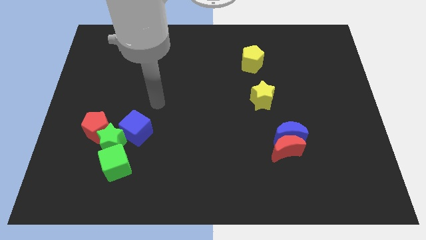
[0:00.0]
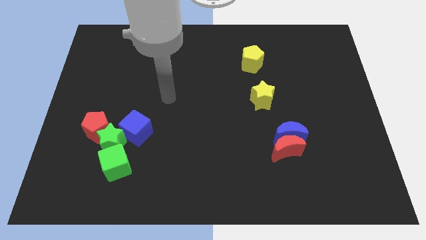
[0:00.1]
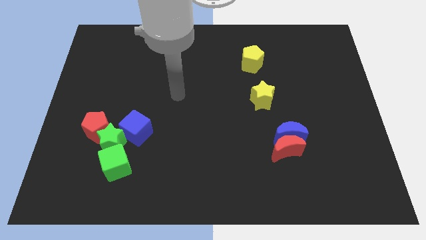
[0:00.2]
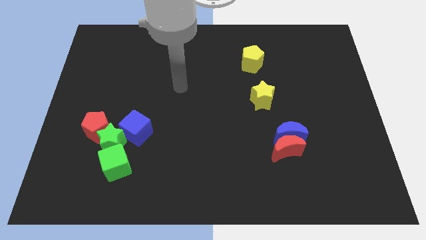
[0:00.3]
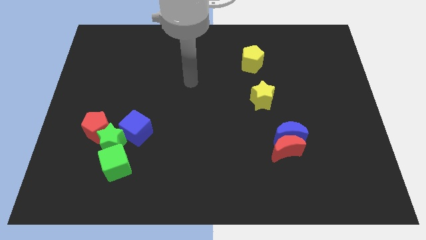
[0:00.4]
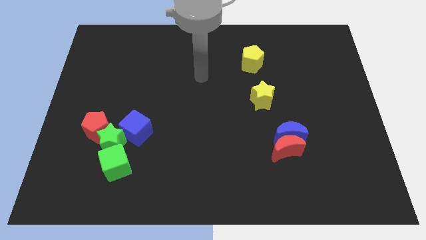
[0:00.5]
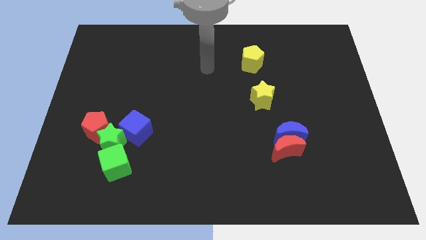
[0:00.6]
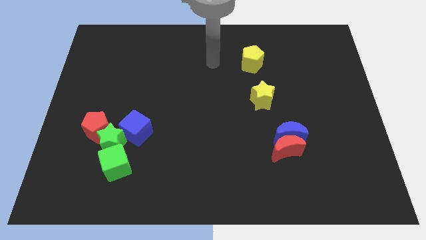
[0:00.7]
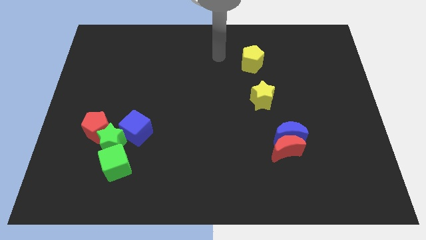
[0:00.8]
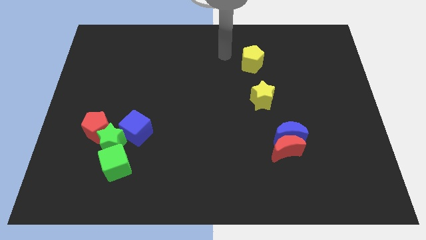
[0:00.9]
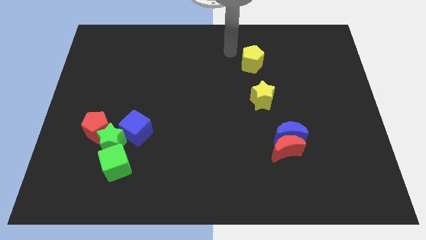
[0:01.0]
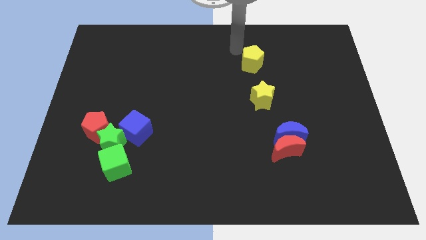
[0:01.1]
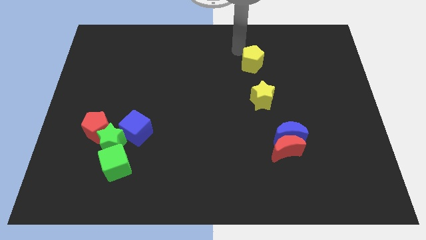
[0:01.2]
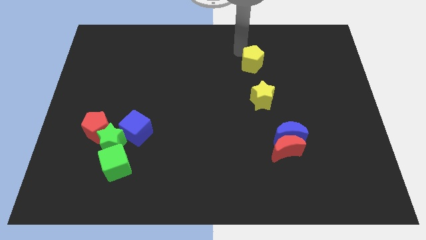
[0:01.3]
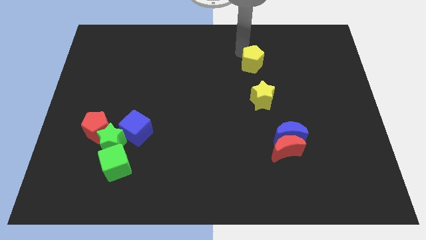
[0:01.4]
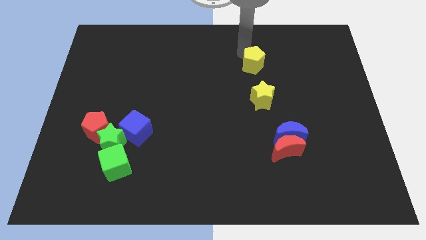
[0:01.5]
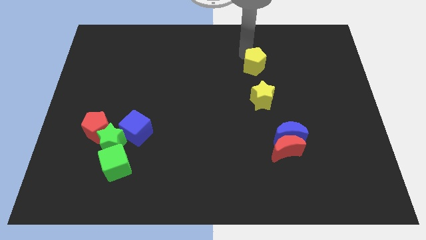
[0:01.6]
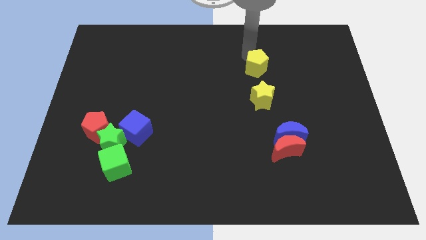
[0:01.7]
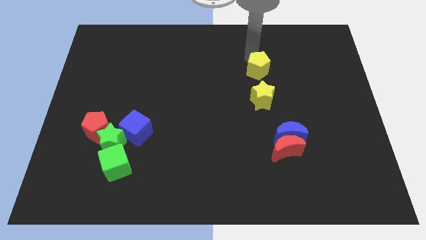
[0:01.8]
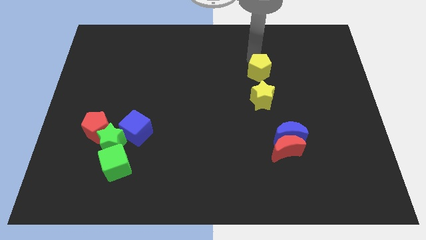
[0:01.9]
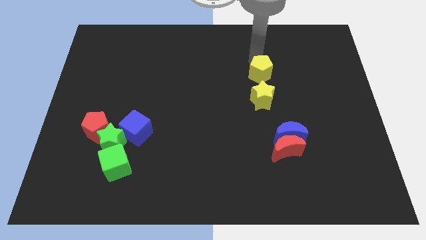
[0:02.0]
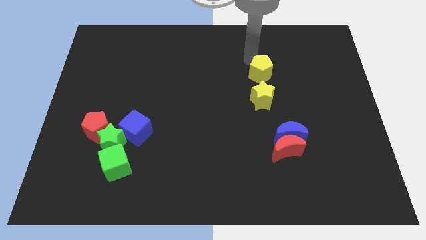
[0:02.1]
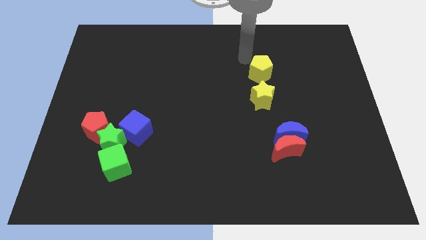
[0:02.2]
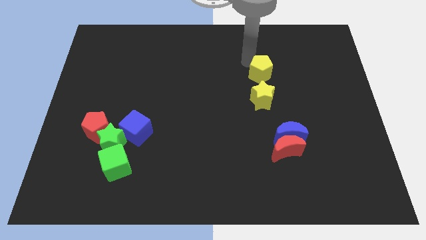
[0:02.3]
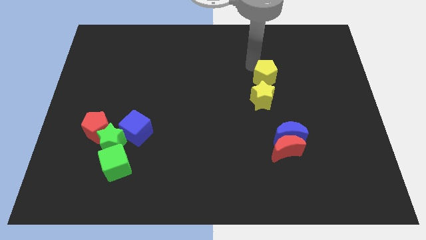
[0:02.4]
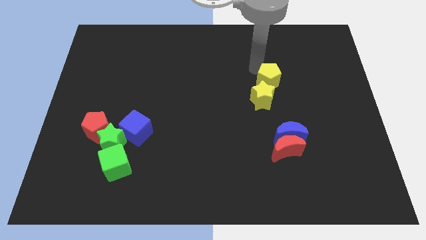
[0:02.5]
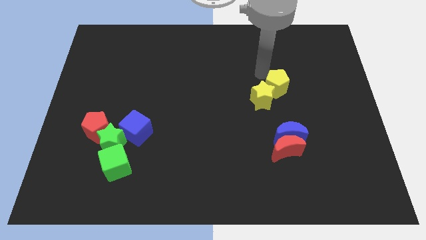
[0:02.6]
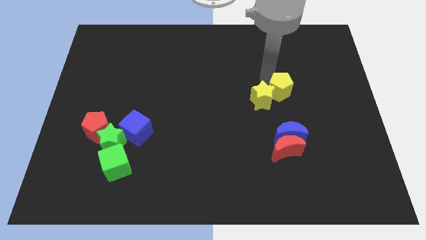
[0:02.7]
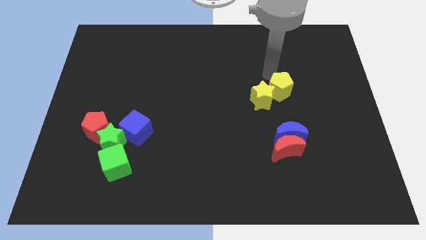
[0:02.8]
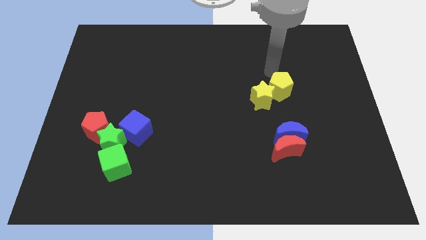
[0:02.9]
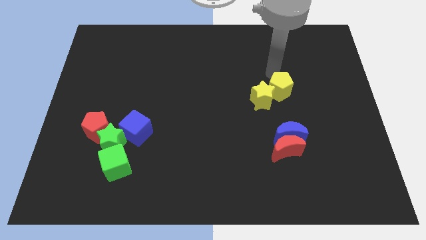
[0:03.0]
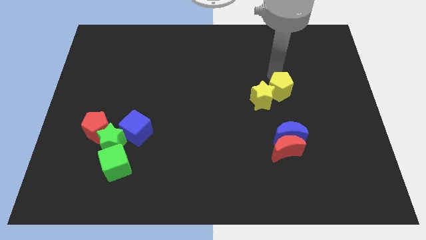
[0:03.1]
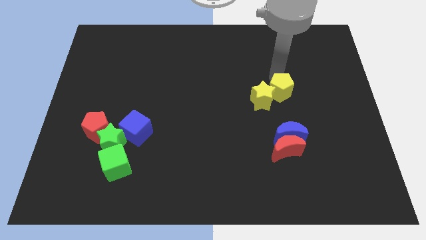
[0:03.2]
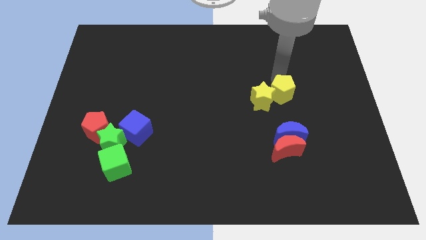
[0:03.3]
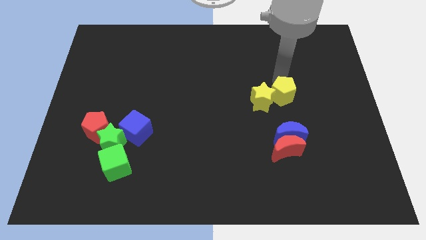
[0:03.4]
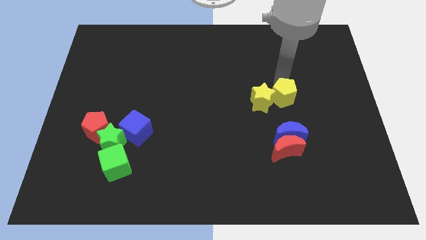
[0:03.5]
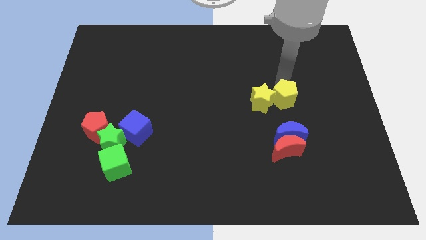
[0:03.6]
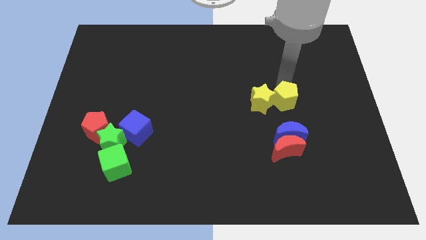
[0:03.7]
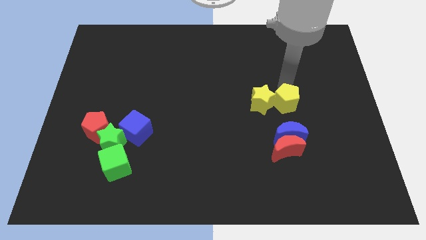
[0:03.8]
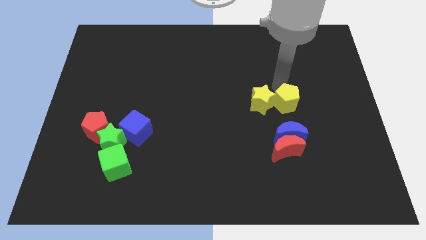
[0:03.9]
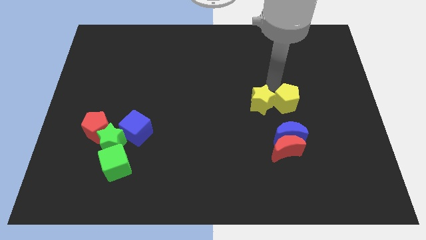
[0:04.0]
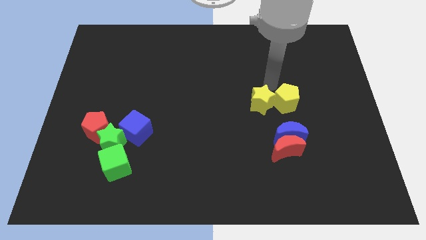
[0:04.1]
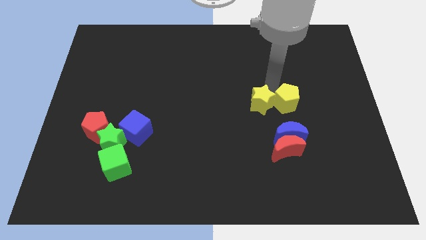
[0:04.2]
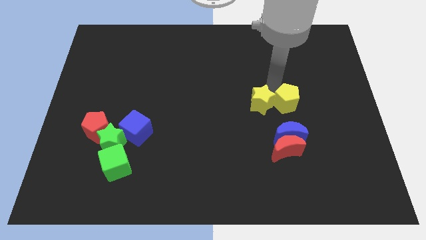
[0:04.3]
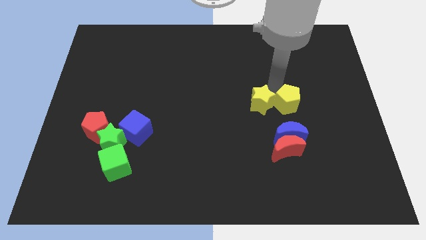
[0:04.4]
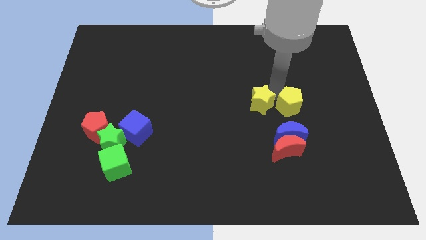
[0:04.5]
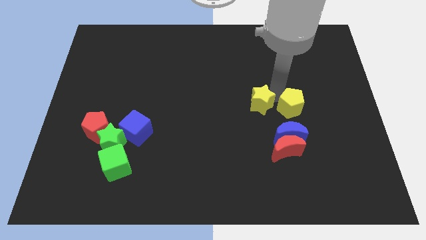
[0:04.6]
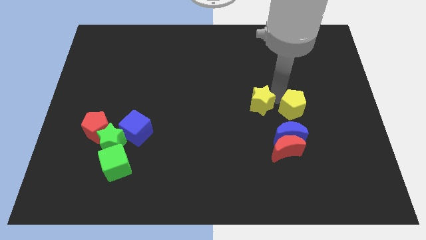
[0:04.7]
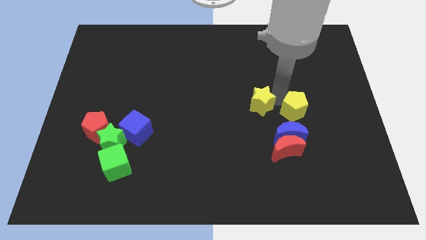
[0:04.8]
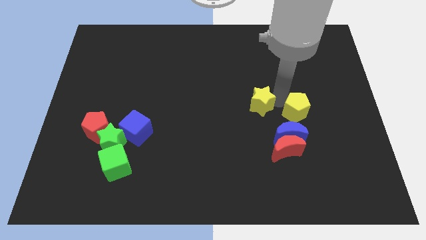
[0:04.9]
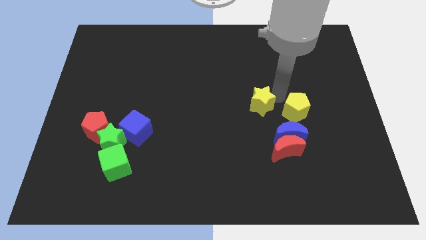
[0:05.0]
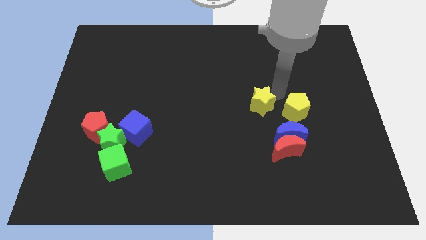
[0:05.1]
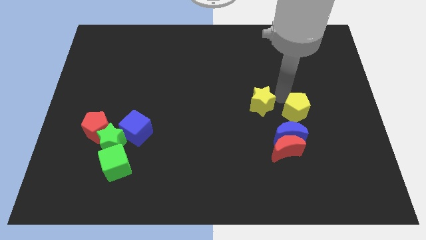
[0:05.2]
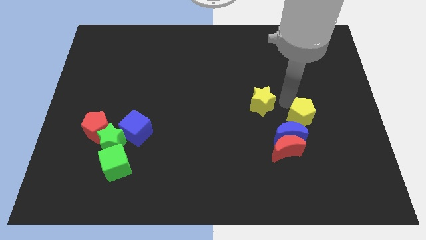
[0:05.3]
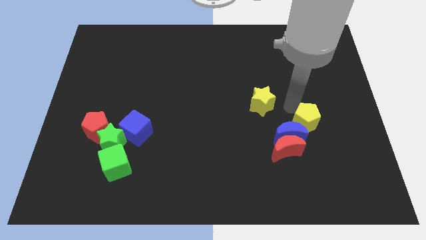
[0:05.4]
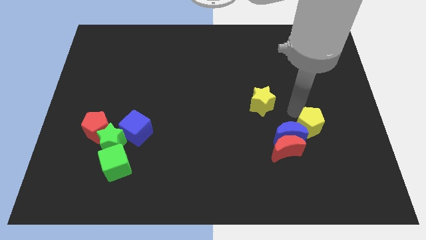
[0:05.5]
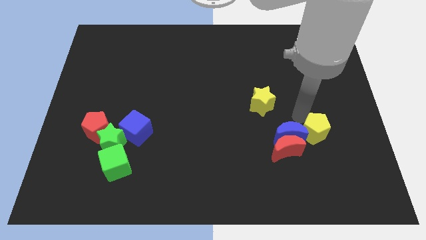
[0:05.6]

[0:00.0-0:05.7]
move the yellow pentagon to the right of the red moon

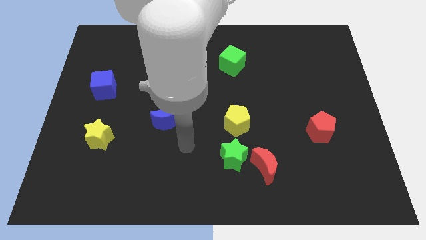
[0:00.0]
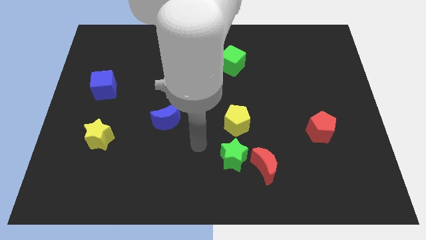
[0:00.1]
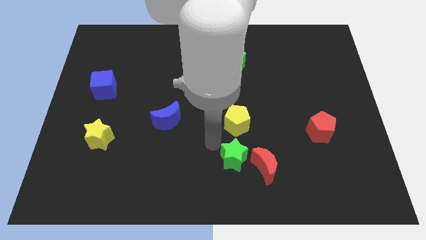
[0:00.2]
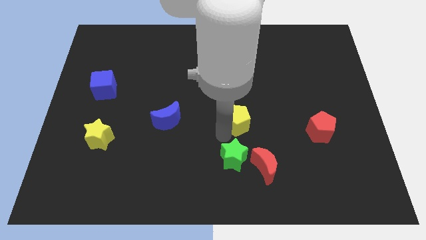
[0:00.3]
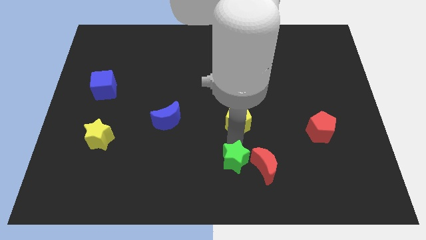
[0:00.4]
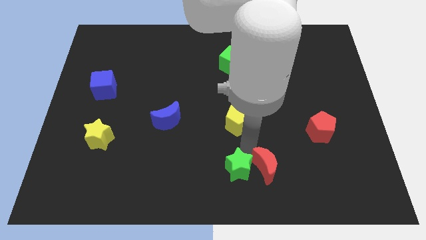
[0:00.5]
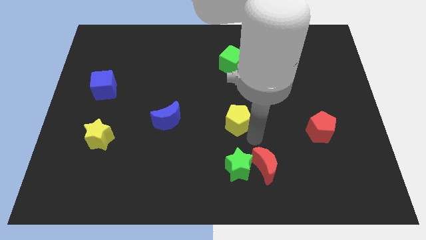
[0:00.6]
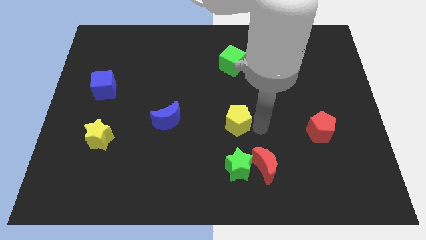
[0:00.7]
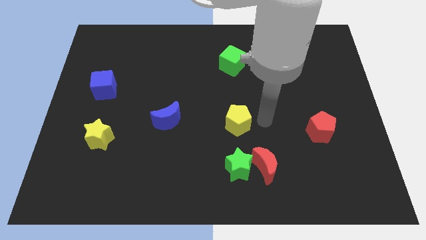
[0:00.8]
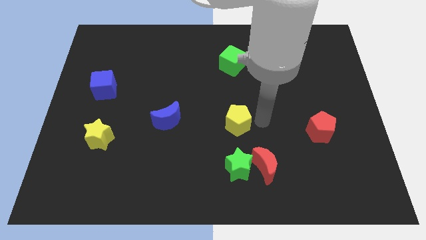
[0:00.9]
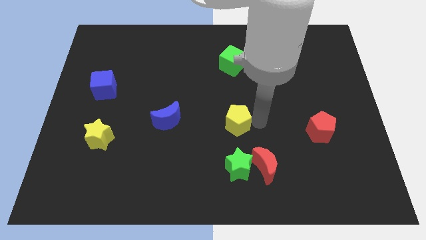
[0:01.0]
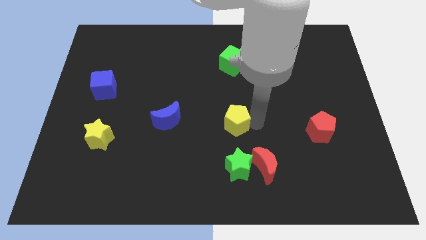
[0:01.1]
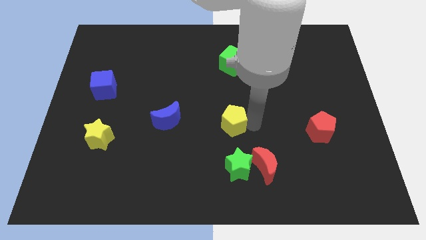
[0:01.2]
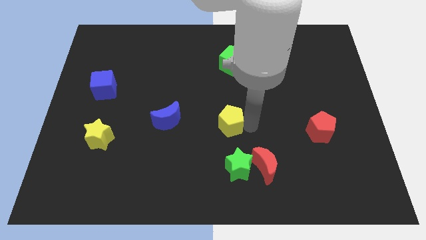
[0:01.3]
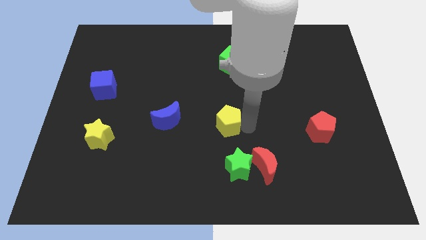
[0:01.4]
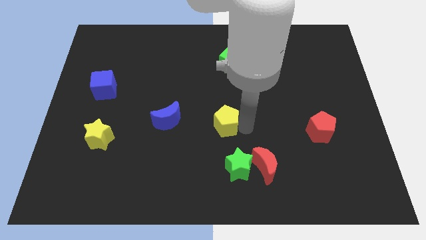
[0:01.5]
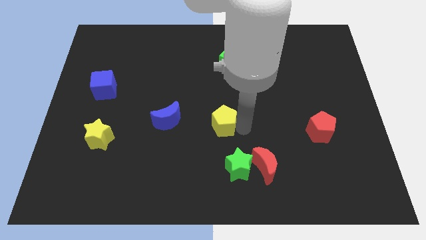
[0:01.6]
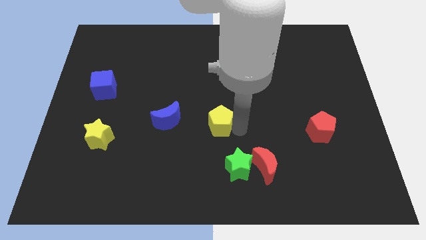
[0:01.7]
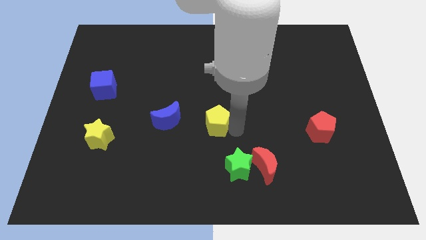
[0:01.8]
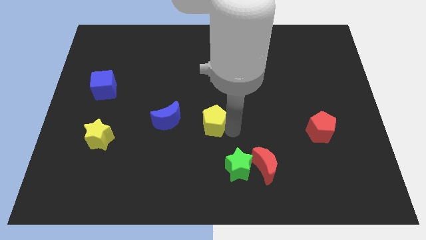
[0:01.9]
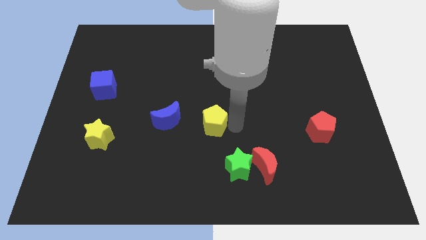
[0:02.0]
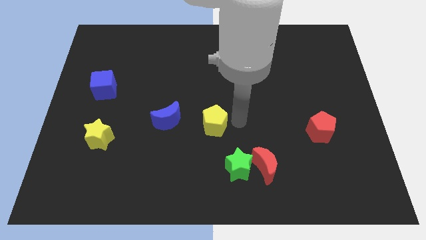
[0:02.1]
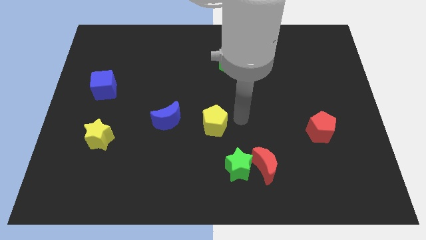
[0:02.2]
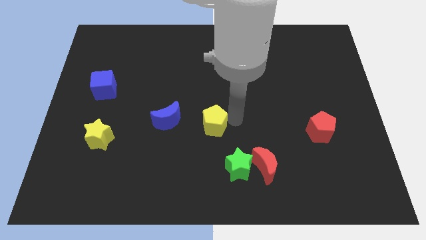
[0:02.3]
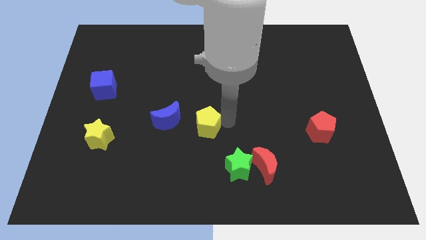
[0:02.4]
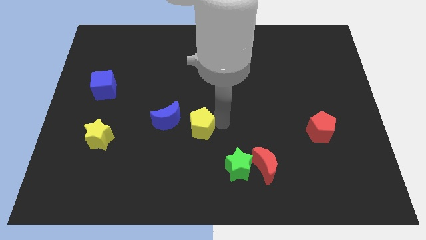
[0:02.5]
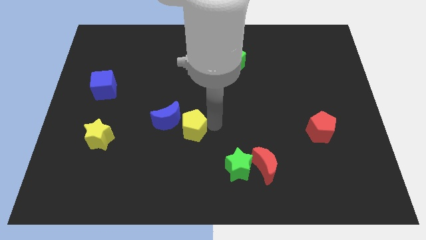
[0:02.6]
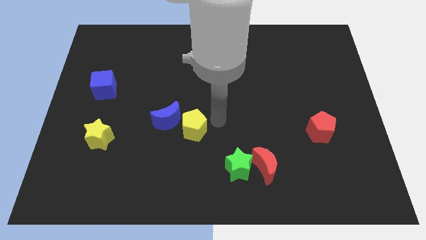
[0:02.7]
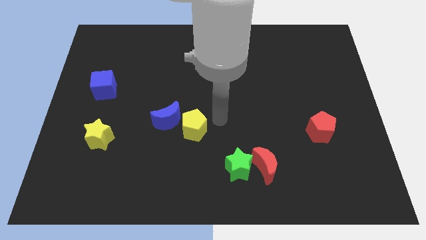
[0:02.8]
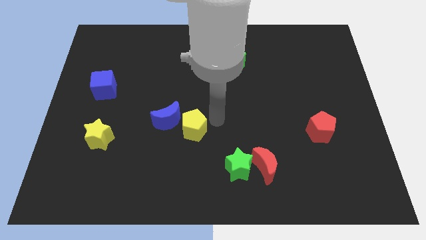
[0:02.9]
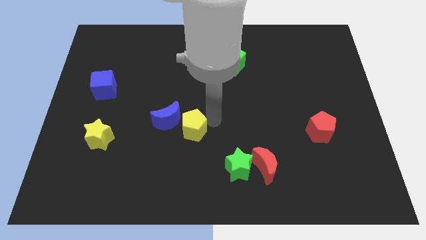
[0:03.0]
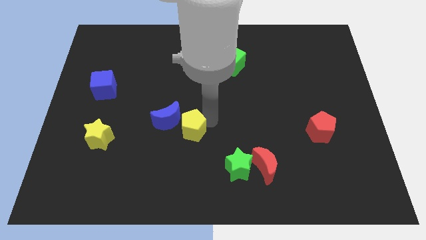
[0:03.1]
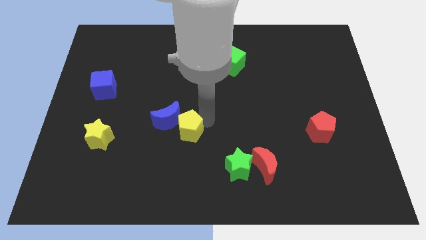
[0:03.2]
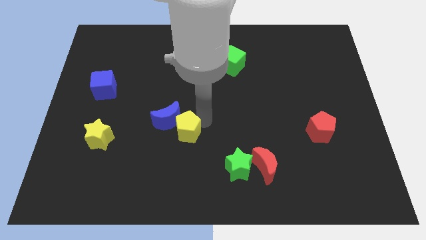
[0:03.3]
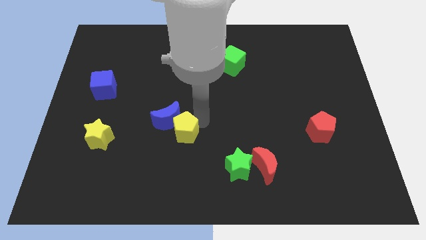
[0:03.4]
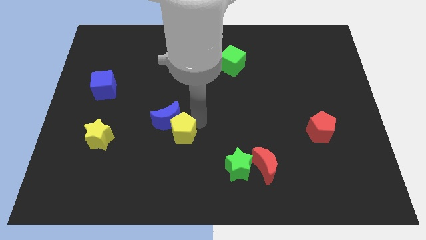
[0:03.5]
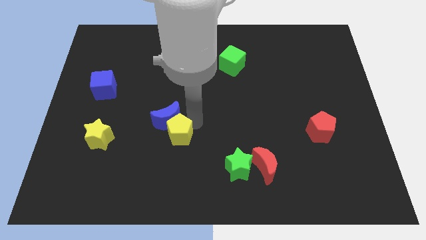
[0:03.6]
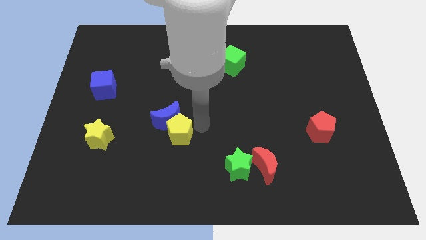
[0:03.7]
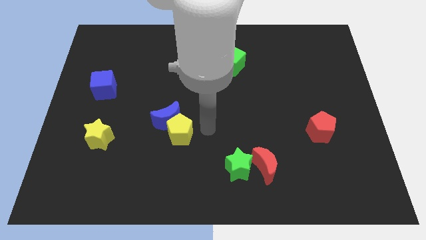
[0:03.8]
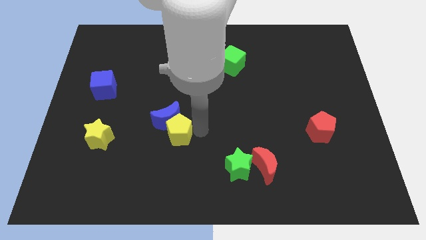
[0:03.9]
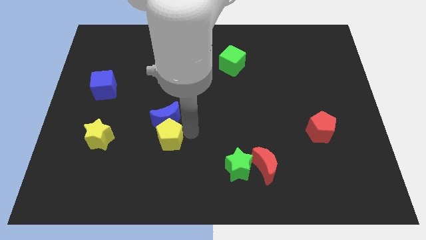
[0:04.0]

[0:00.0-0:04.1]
put the yellow pentagon to the bottom left of the blue moon
